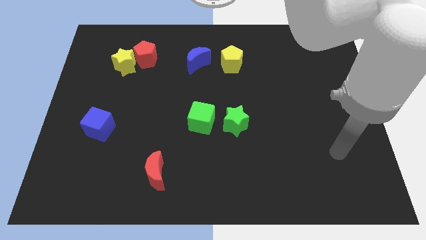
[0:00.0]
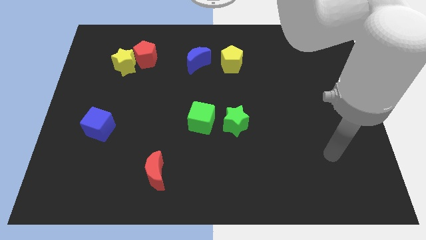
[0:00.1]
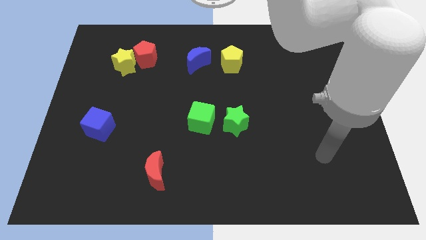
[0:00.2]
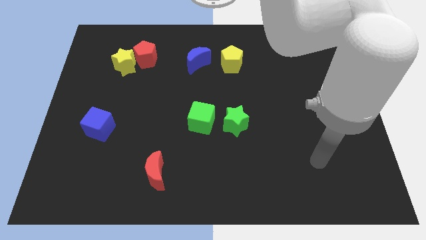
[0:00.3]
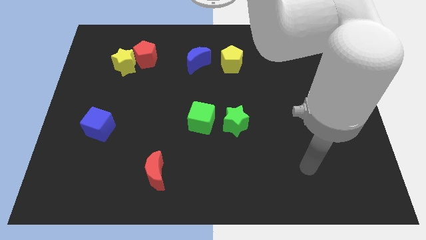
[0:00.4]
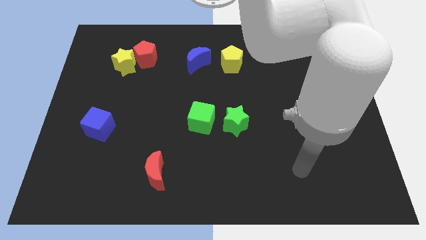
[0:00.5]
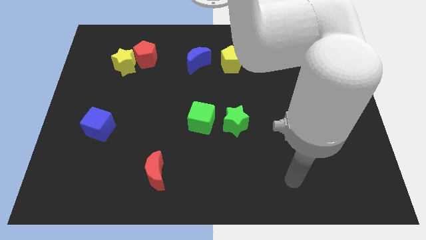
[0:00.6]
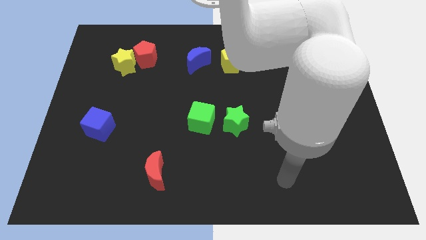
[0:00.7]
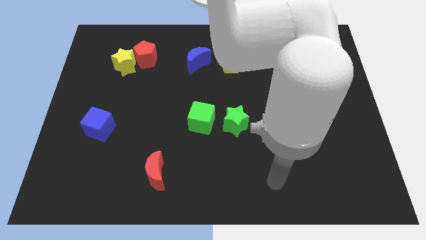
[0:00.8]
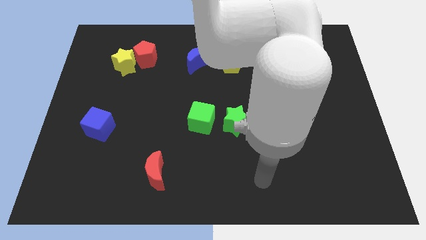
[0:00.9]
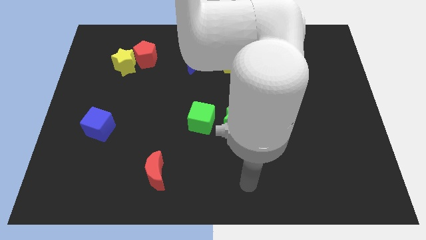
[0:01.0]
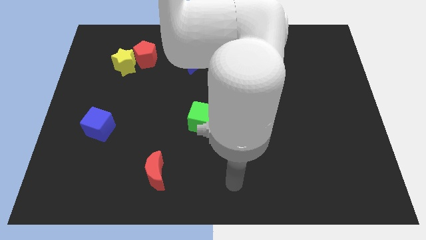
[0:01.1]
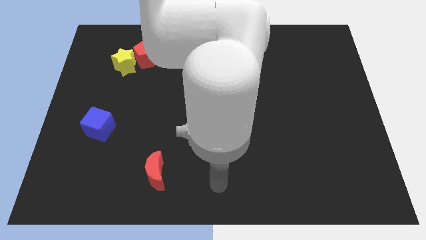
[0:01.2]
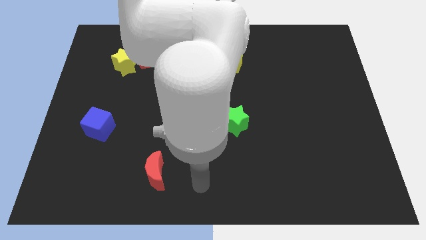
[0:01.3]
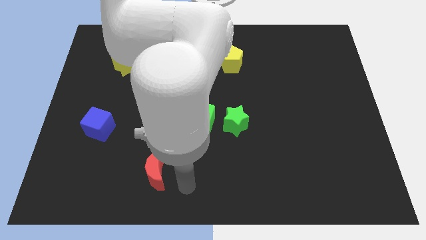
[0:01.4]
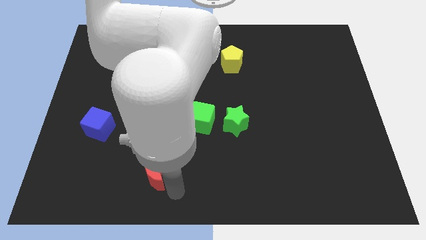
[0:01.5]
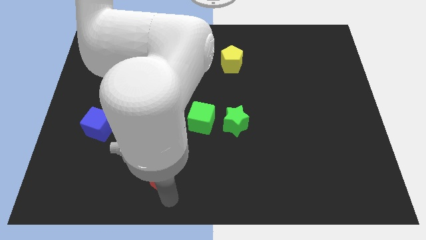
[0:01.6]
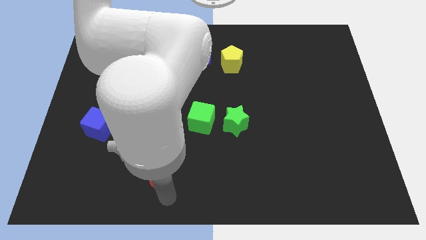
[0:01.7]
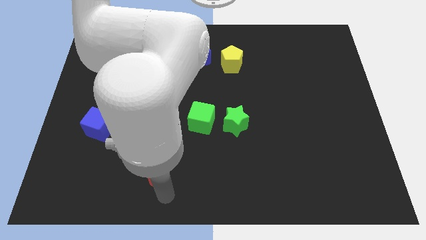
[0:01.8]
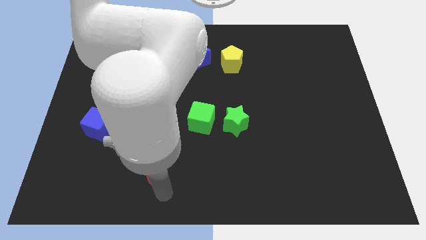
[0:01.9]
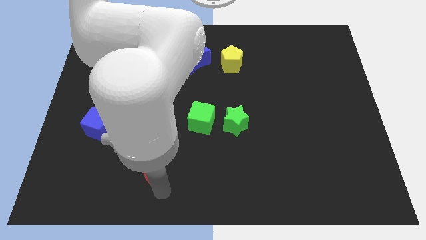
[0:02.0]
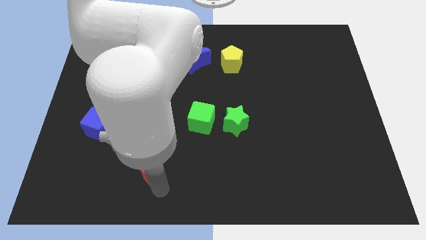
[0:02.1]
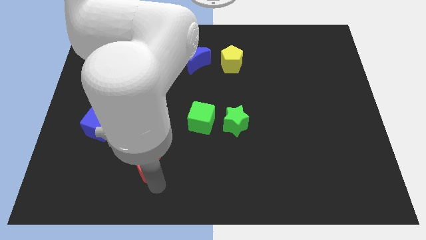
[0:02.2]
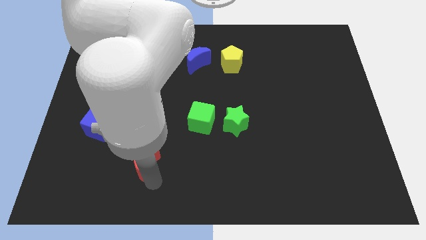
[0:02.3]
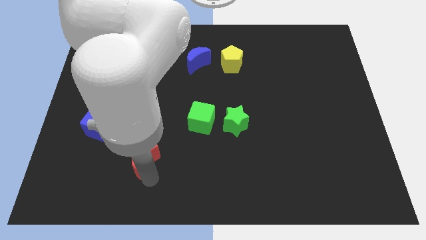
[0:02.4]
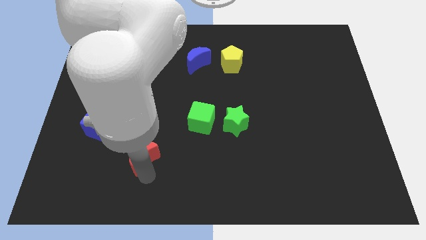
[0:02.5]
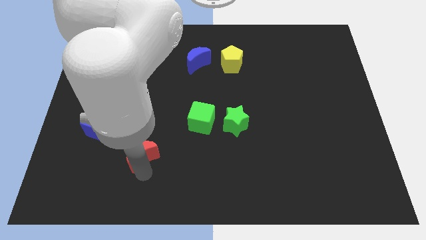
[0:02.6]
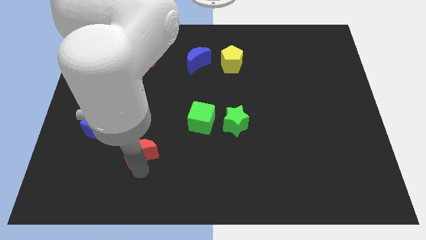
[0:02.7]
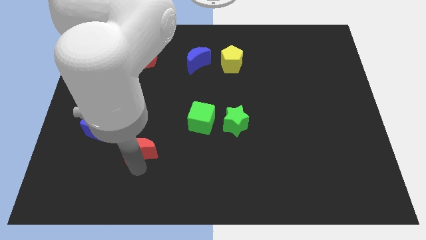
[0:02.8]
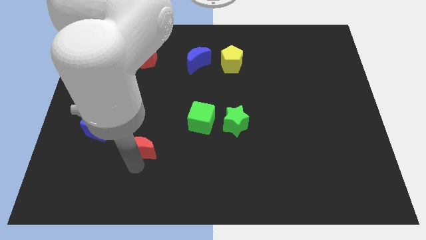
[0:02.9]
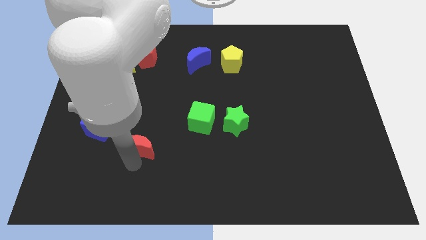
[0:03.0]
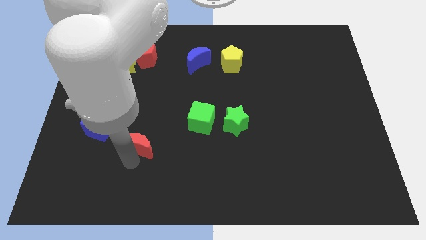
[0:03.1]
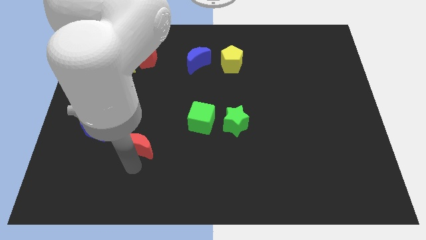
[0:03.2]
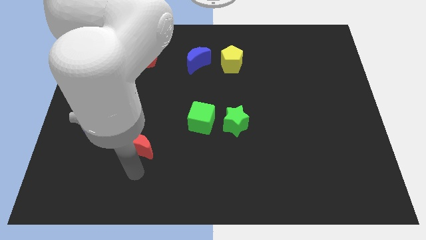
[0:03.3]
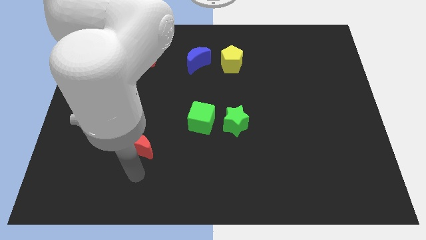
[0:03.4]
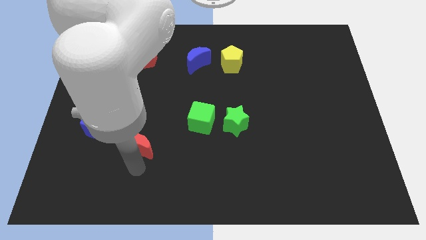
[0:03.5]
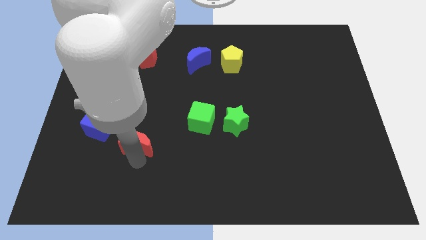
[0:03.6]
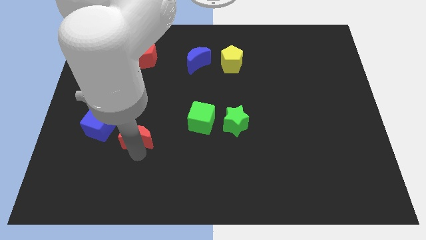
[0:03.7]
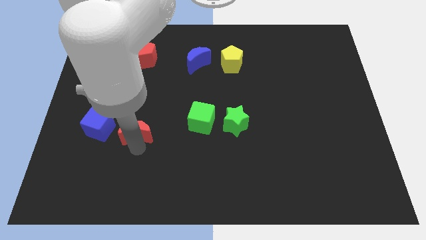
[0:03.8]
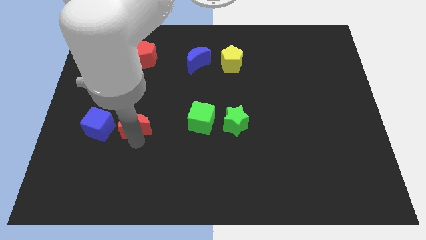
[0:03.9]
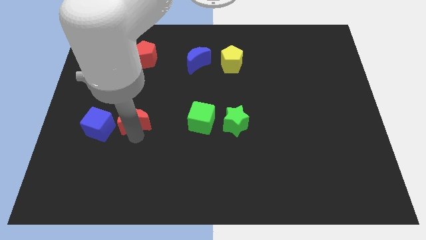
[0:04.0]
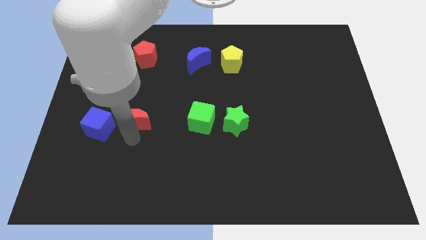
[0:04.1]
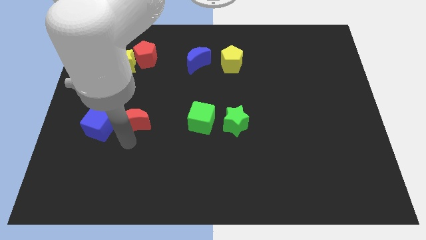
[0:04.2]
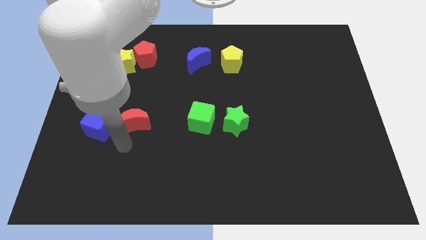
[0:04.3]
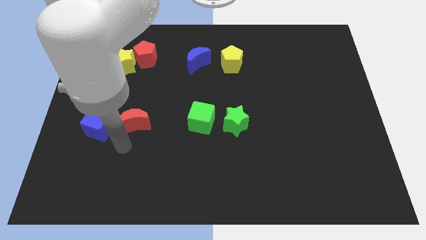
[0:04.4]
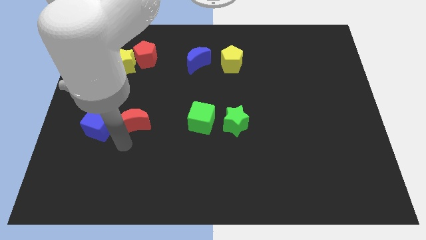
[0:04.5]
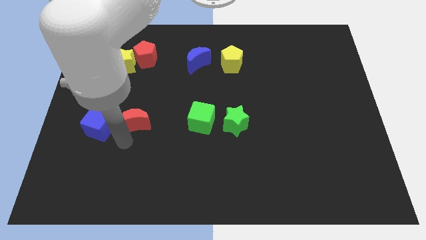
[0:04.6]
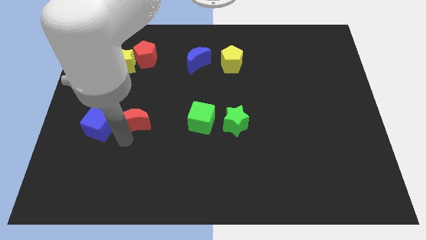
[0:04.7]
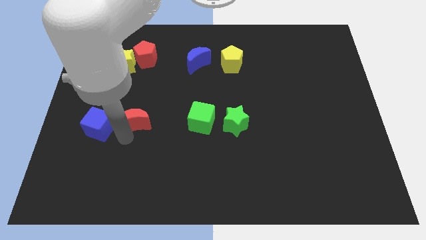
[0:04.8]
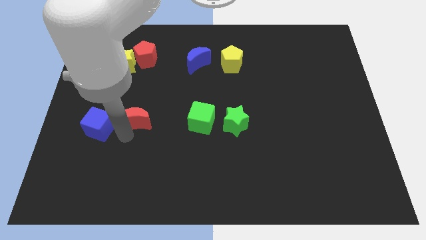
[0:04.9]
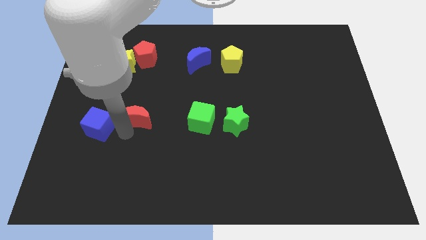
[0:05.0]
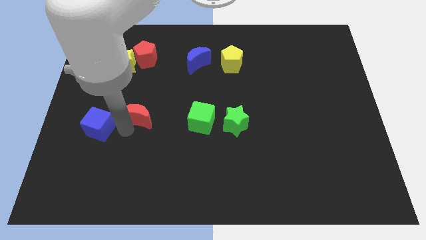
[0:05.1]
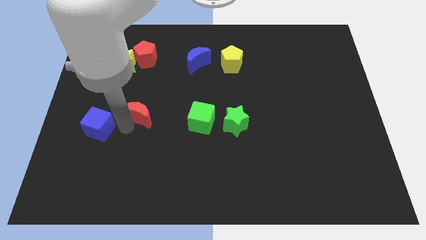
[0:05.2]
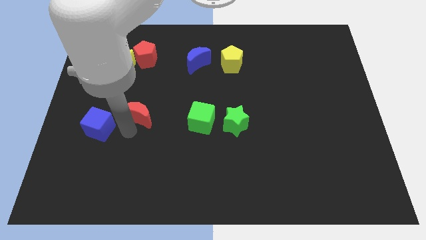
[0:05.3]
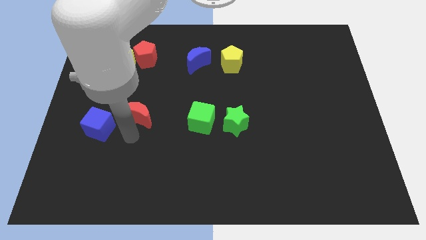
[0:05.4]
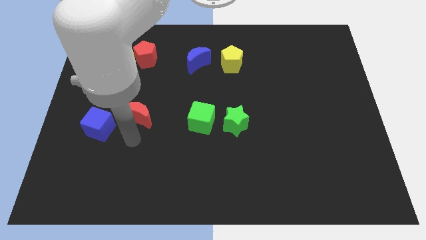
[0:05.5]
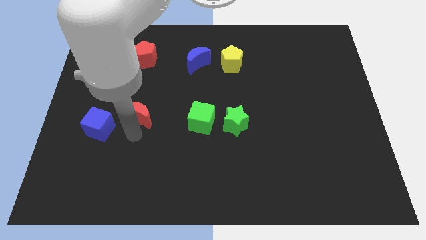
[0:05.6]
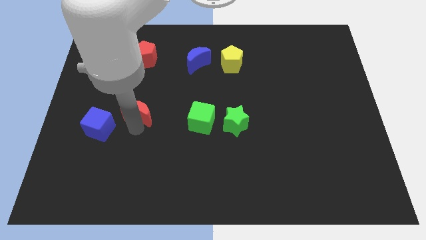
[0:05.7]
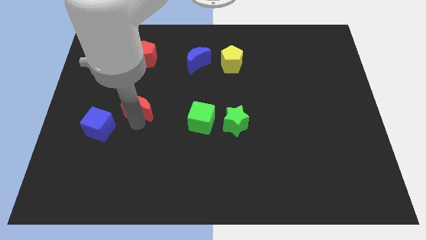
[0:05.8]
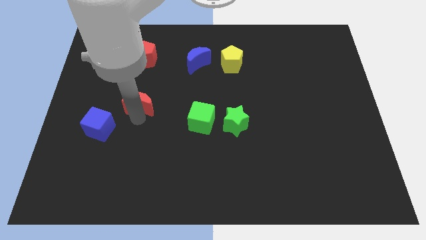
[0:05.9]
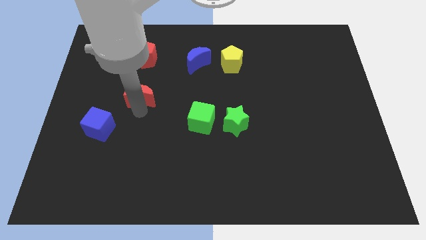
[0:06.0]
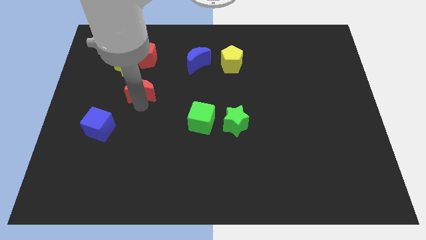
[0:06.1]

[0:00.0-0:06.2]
put the red moon to the bottom right side of the yellow star
